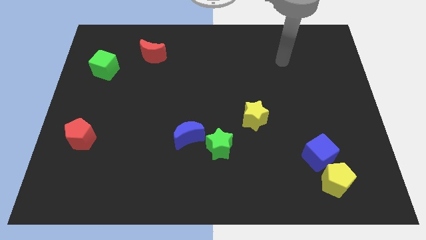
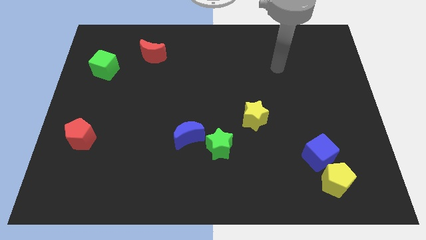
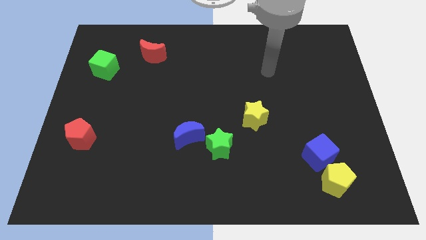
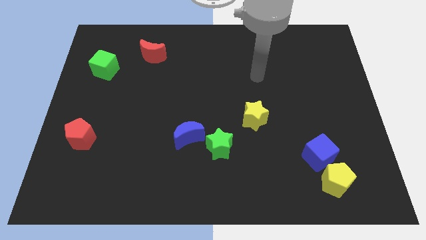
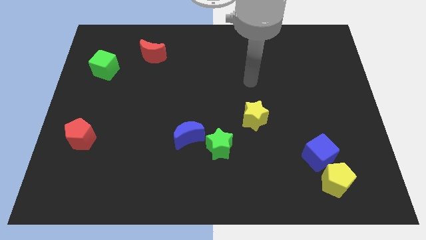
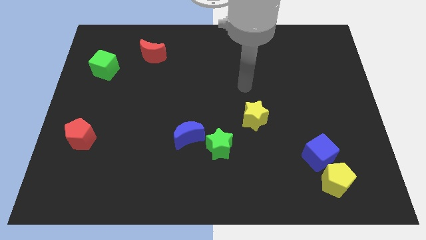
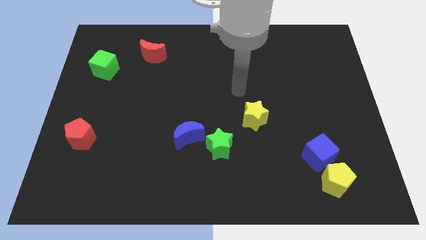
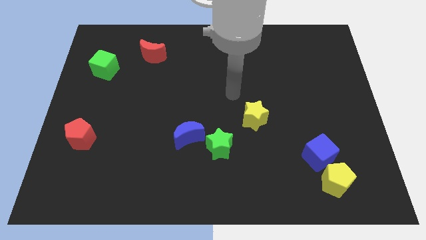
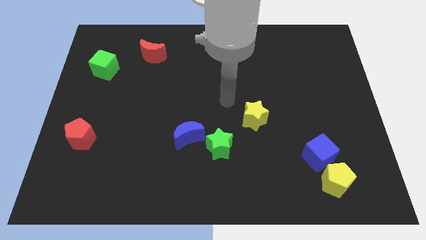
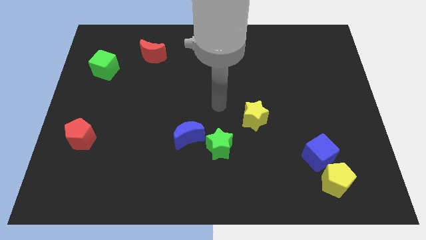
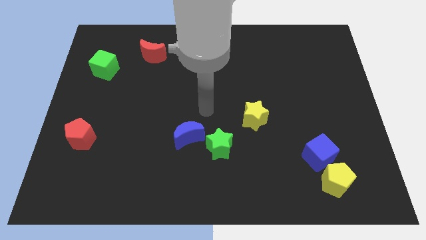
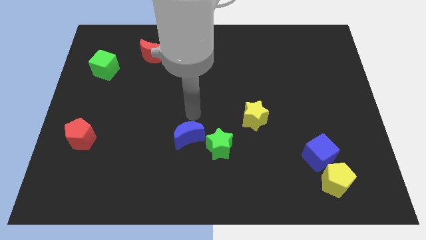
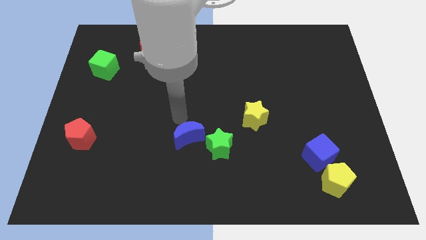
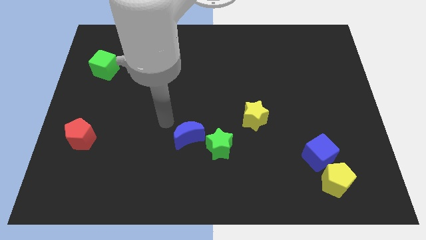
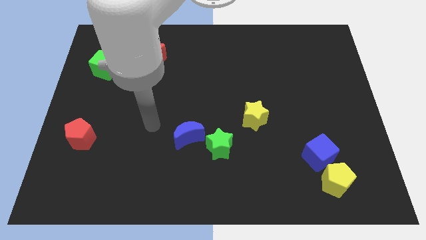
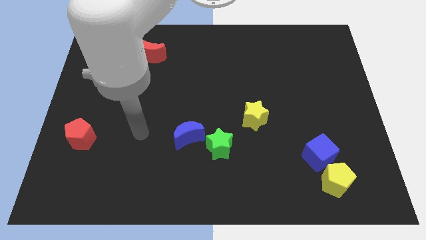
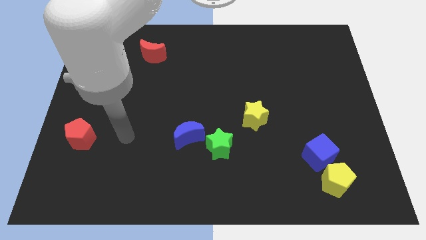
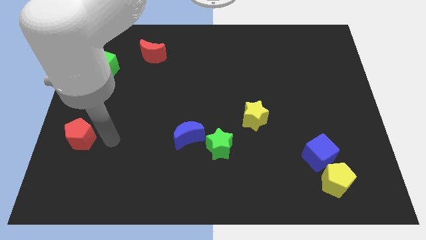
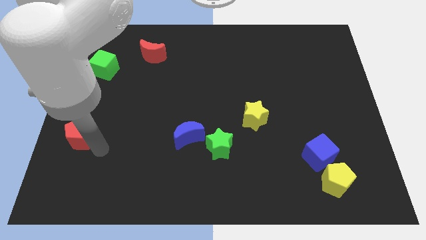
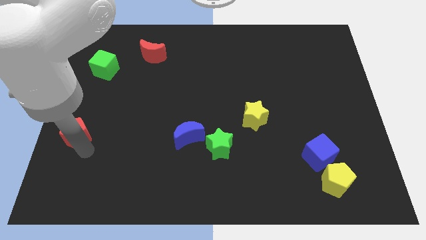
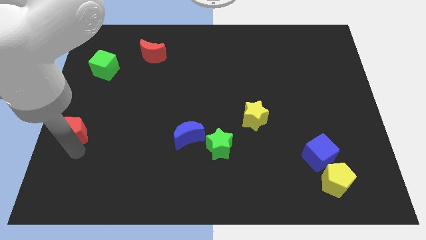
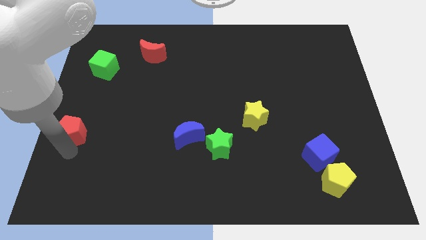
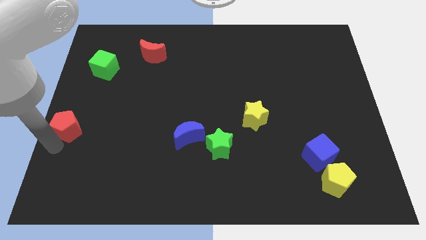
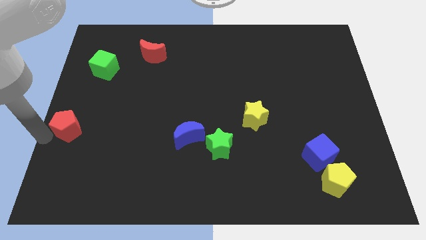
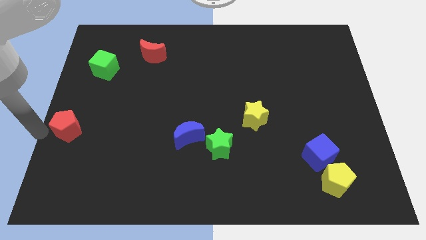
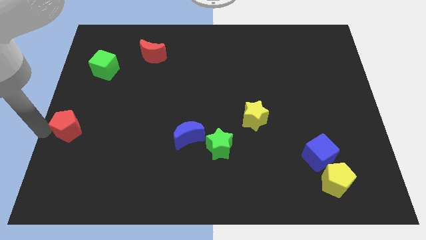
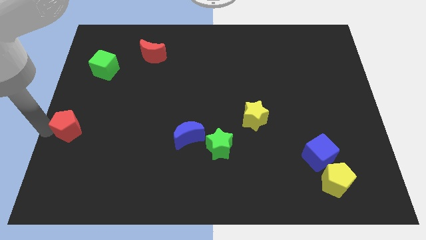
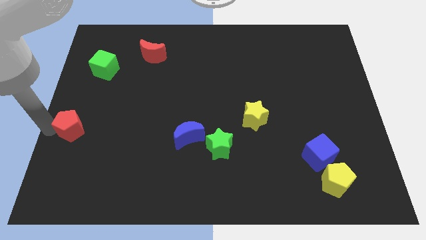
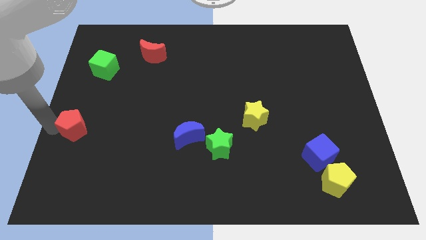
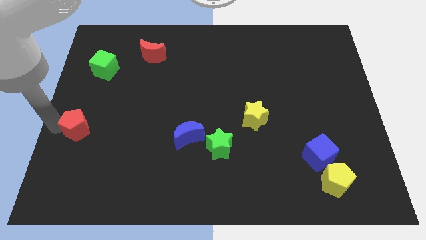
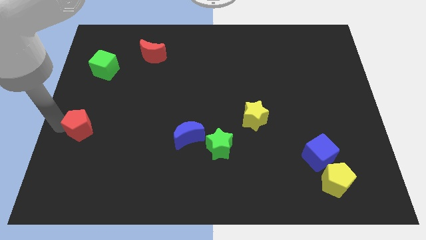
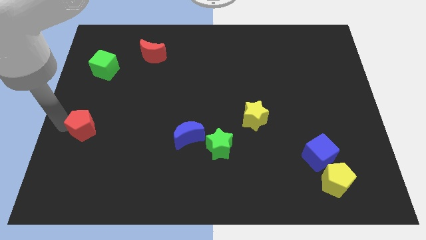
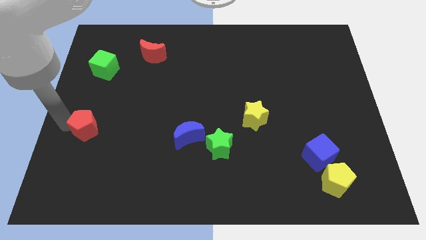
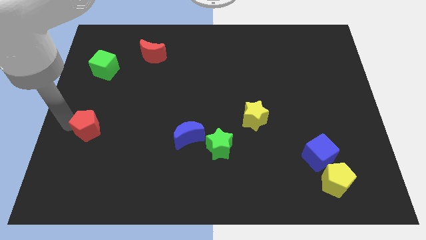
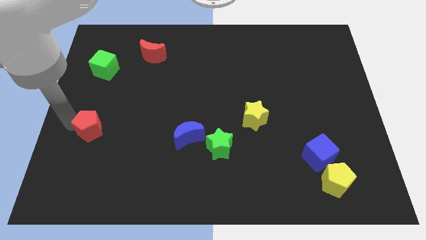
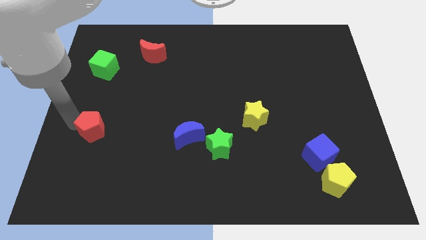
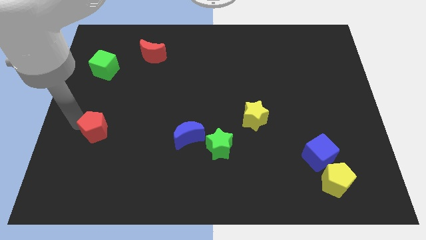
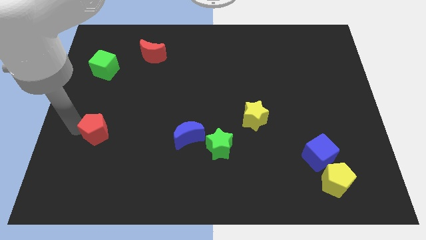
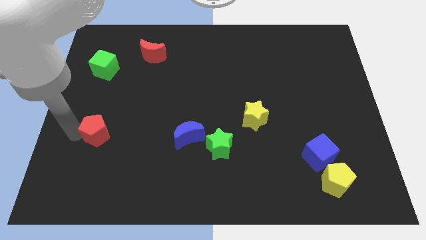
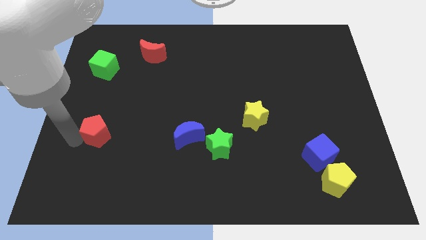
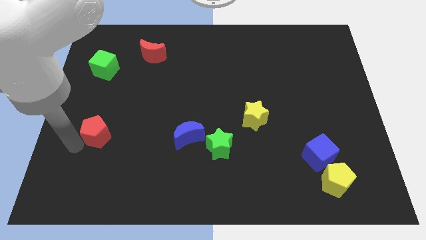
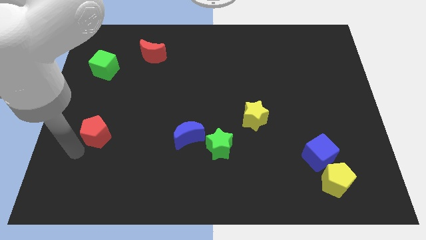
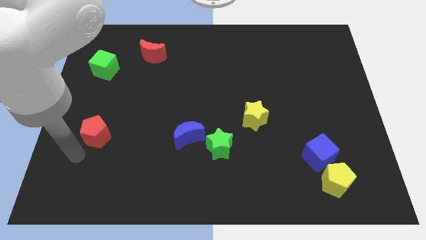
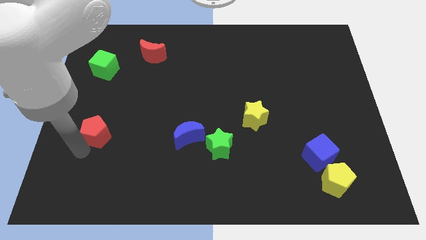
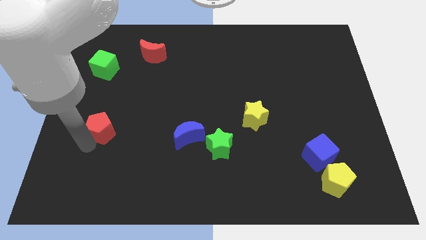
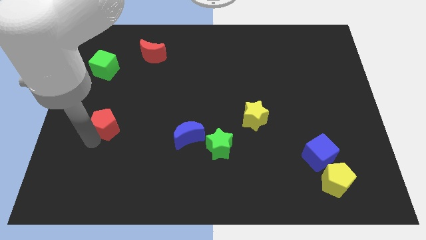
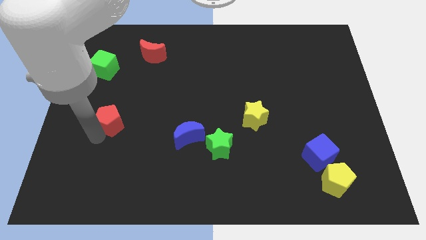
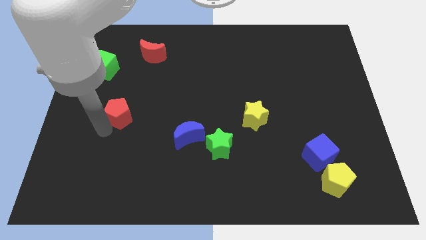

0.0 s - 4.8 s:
slide the red pentagon somewhat diagonally up and right

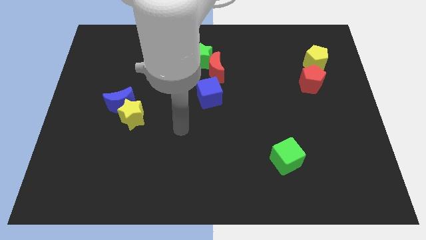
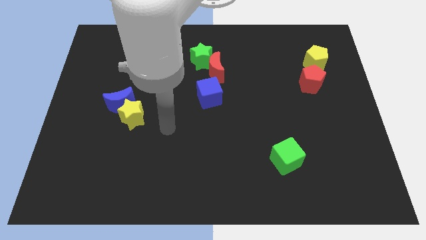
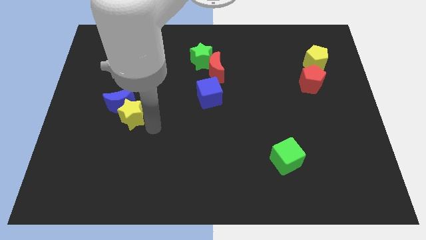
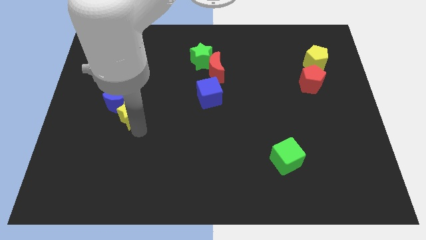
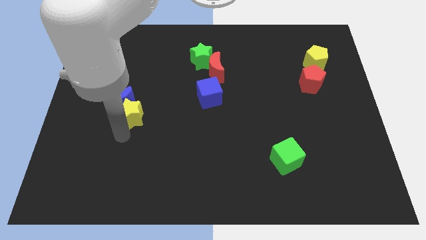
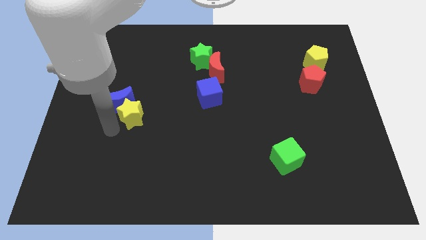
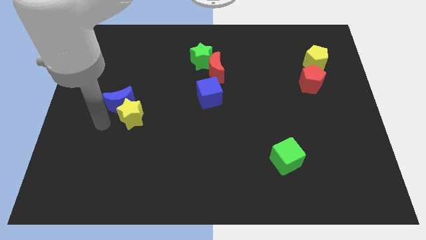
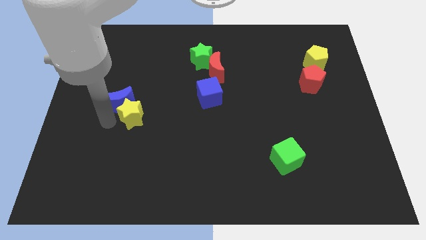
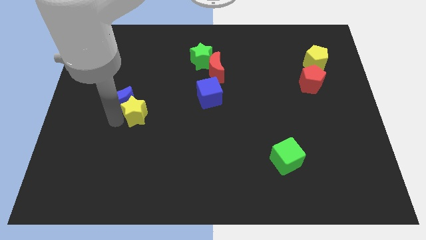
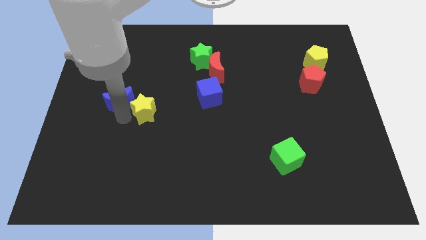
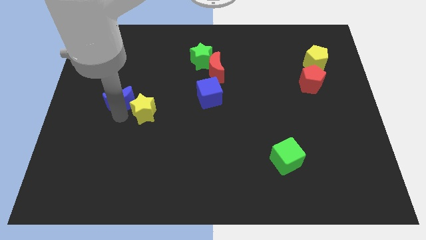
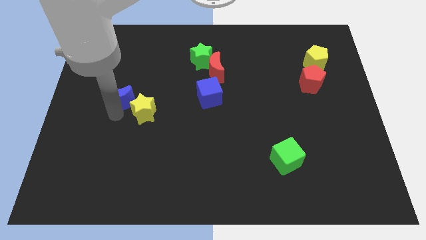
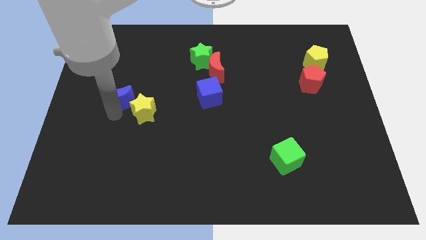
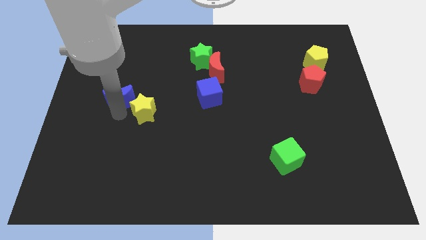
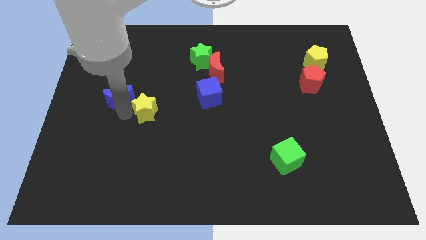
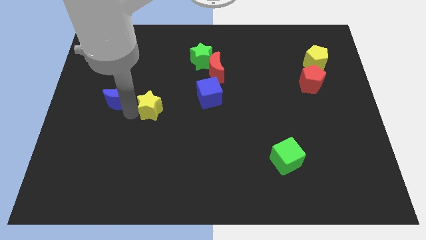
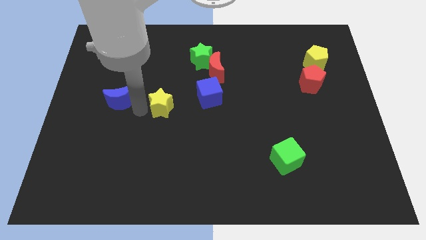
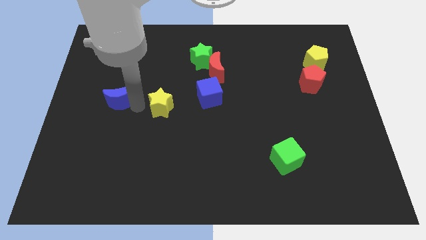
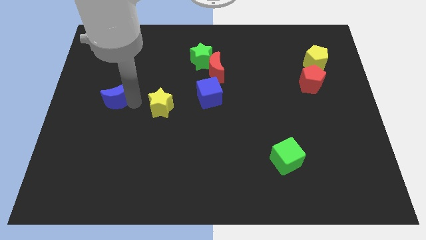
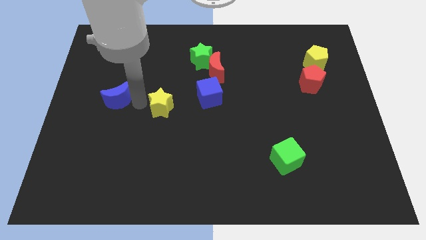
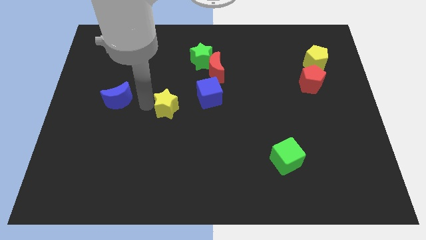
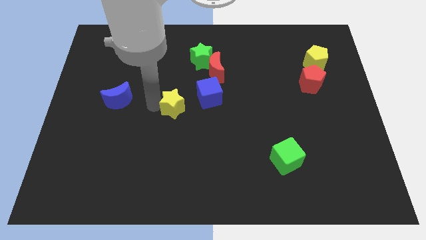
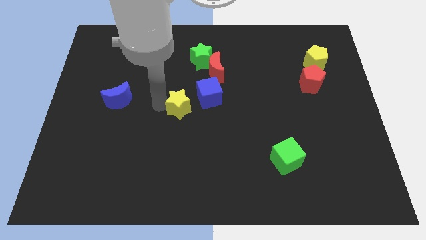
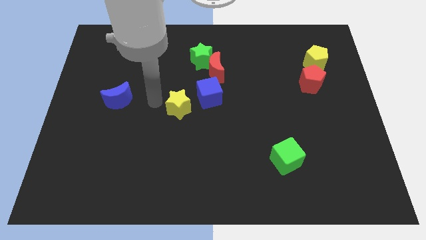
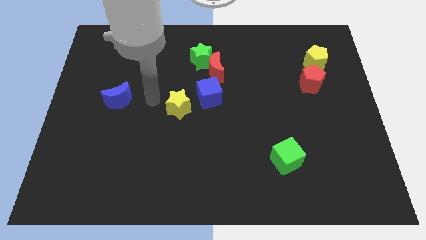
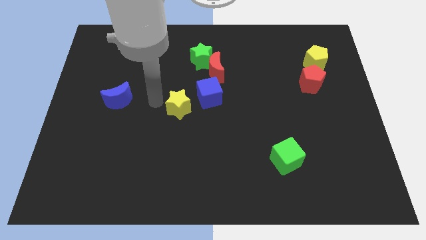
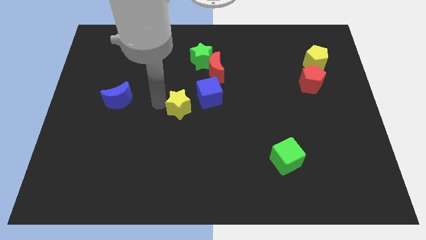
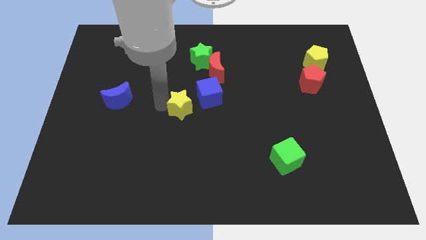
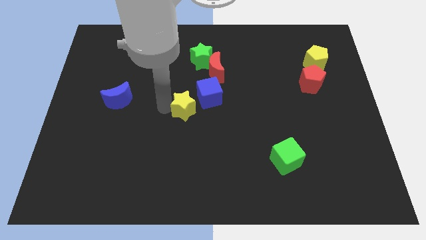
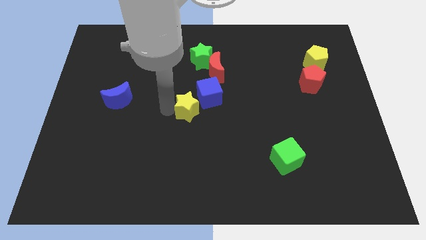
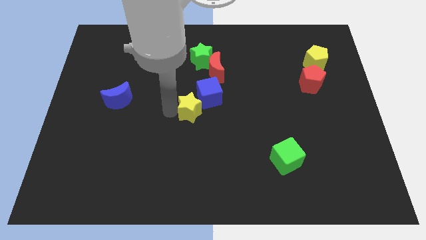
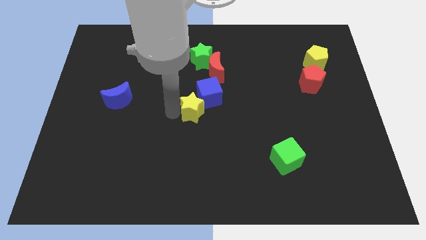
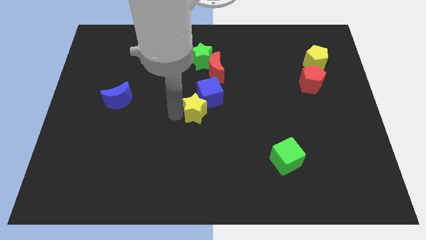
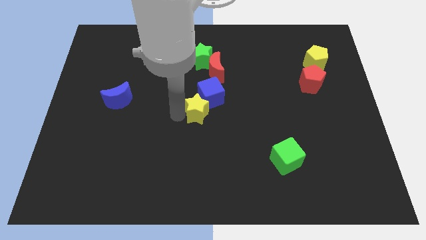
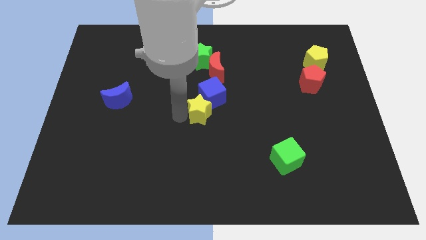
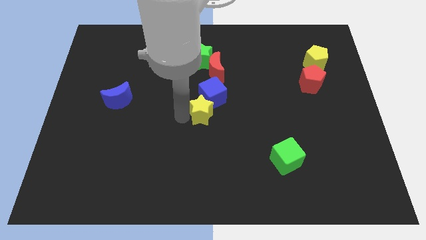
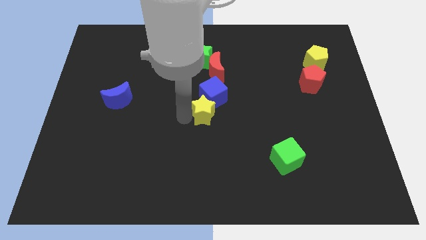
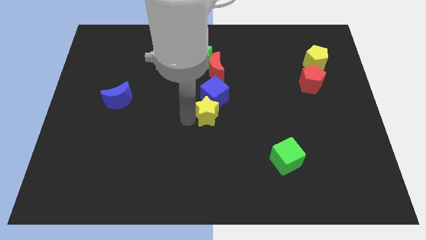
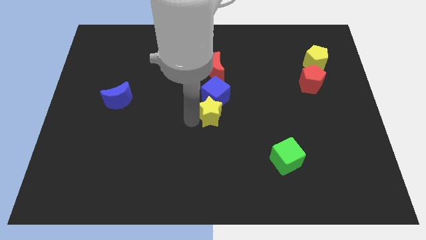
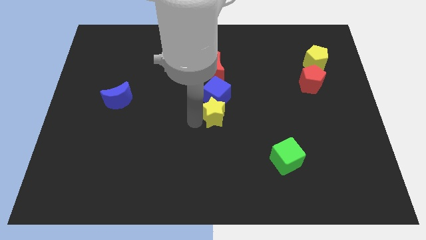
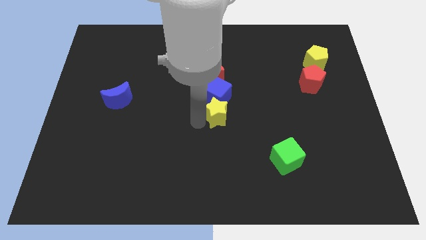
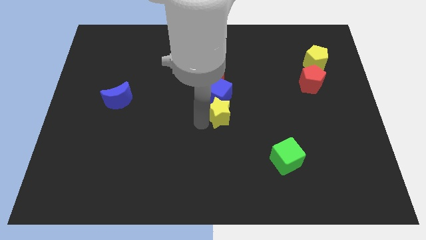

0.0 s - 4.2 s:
slide the yellow star to the right
